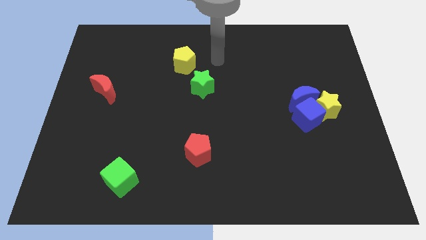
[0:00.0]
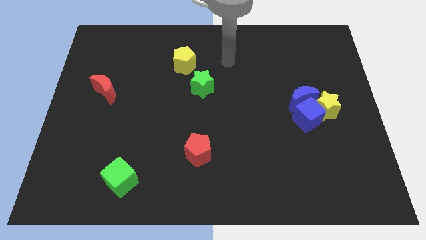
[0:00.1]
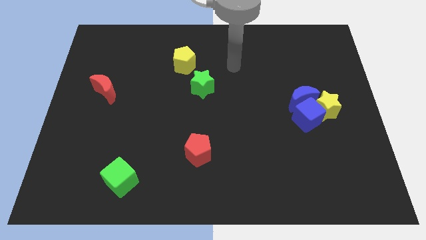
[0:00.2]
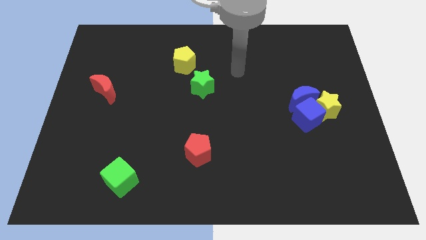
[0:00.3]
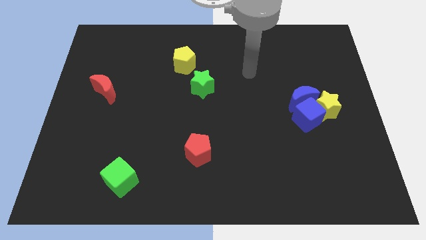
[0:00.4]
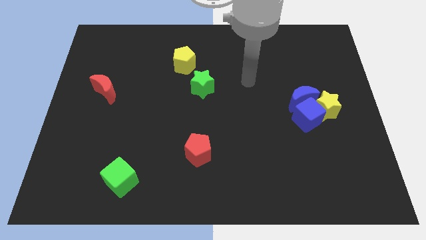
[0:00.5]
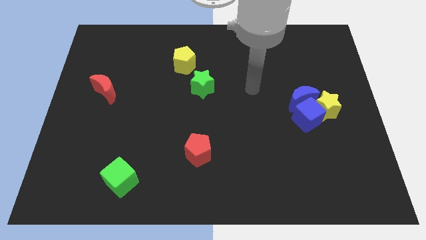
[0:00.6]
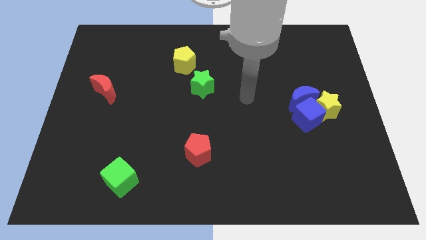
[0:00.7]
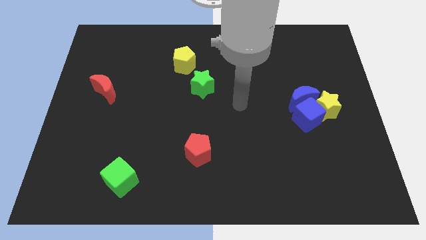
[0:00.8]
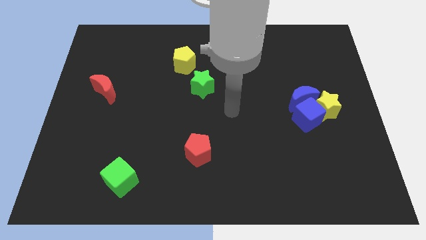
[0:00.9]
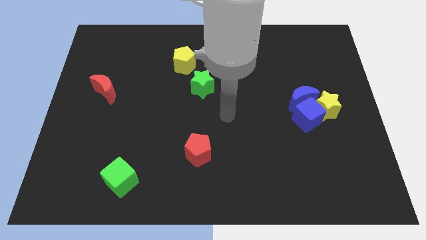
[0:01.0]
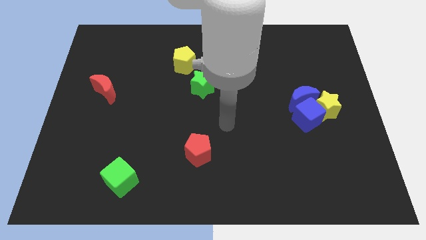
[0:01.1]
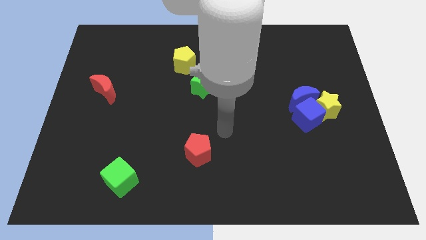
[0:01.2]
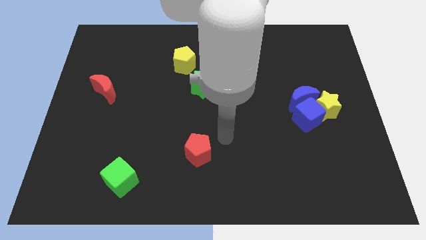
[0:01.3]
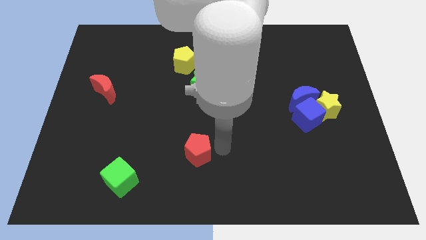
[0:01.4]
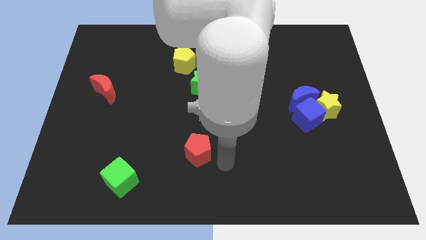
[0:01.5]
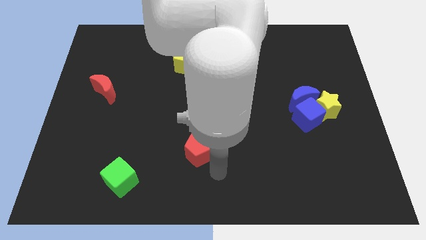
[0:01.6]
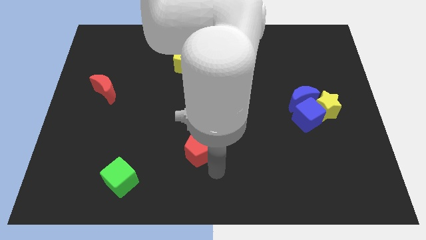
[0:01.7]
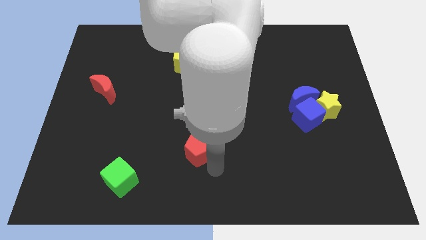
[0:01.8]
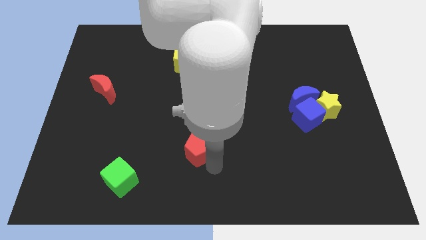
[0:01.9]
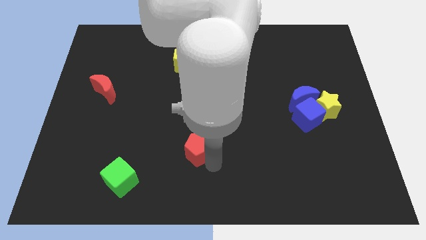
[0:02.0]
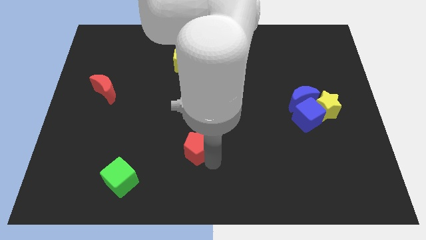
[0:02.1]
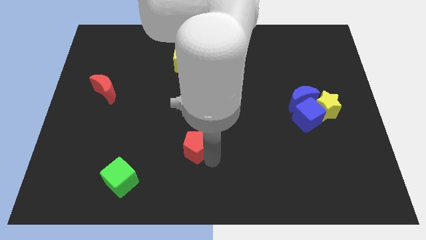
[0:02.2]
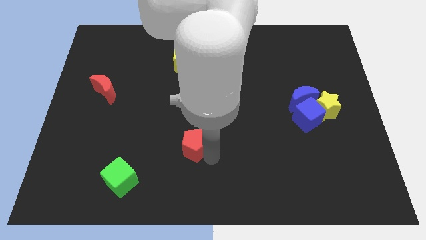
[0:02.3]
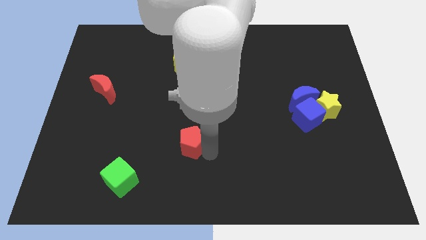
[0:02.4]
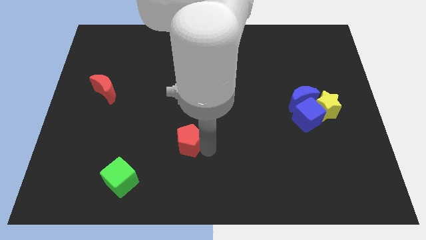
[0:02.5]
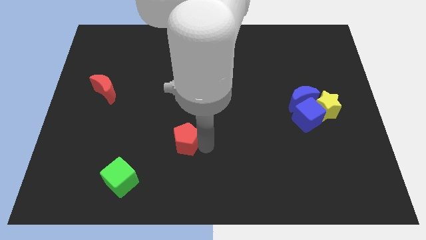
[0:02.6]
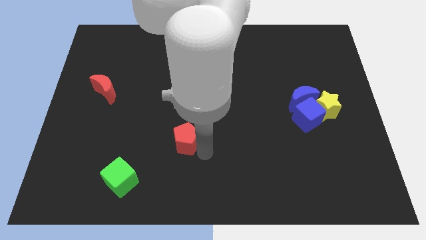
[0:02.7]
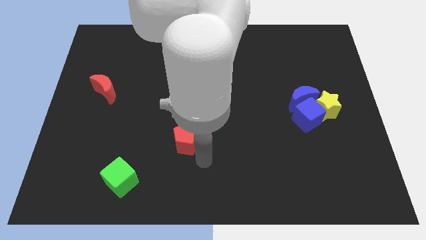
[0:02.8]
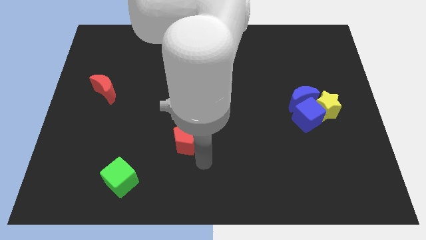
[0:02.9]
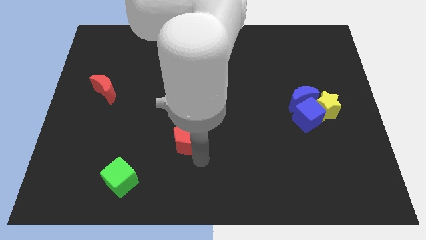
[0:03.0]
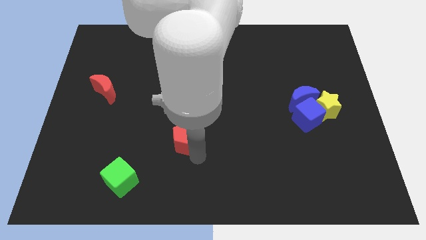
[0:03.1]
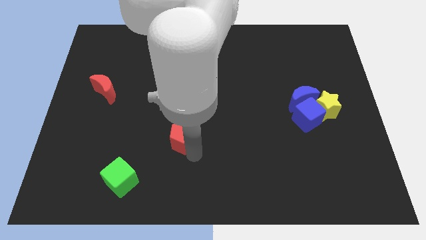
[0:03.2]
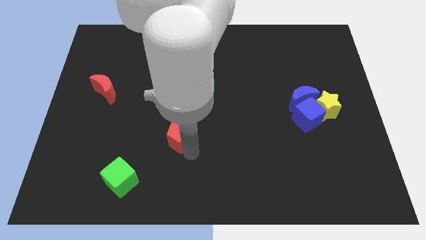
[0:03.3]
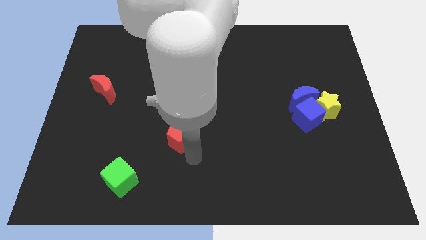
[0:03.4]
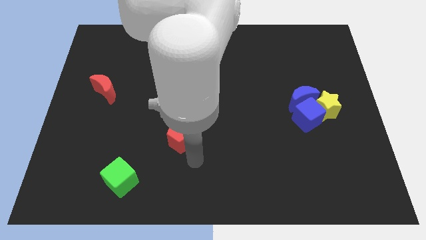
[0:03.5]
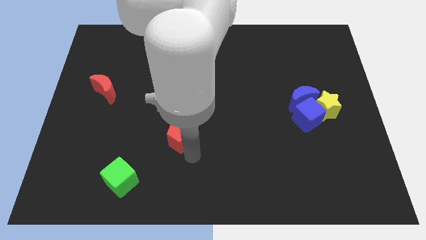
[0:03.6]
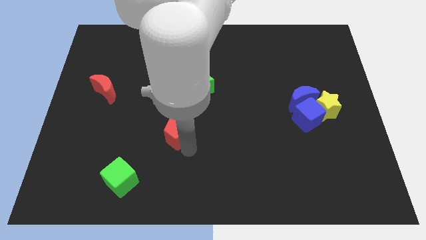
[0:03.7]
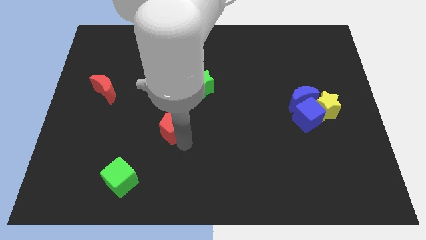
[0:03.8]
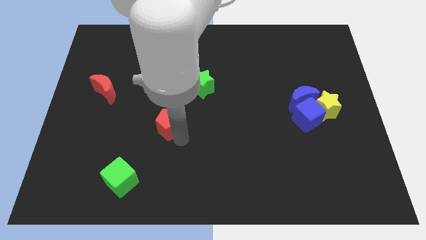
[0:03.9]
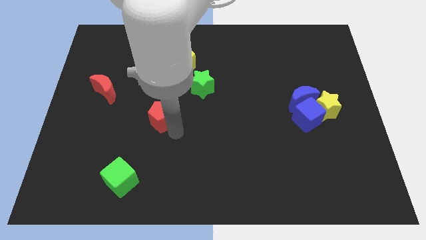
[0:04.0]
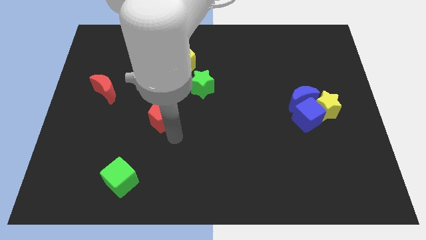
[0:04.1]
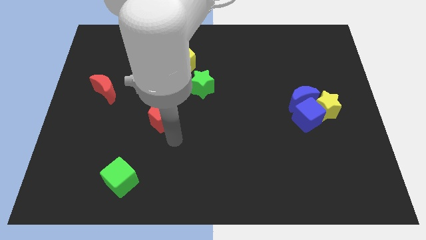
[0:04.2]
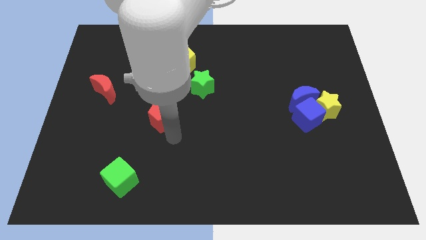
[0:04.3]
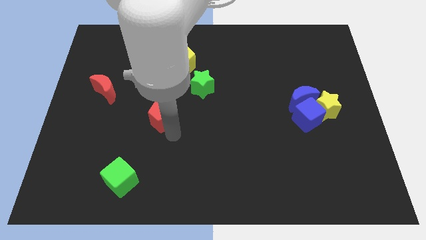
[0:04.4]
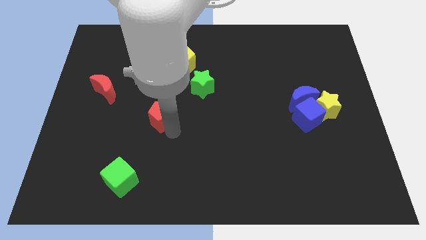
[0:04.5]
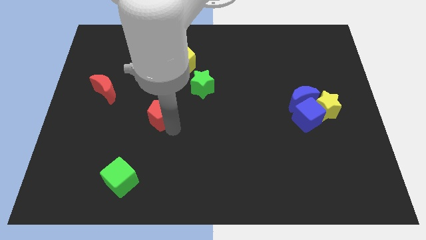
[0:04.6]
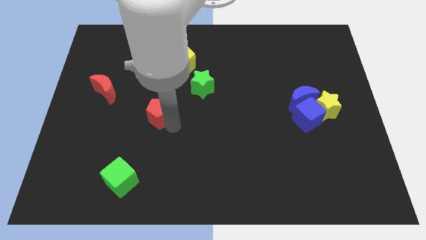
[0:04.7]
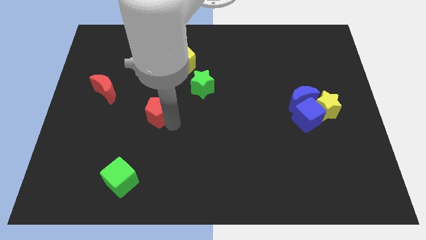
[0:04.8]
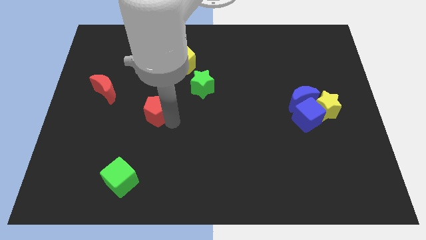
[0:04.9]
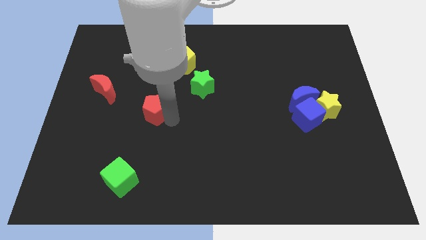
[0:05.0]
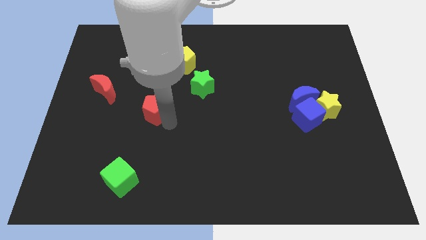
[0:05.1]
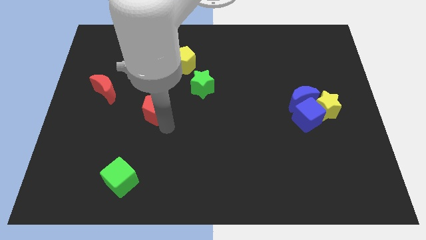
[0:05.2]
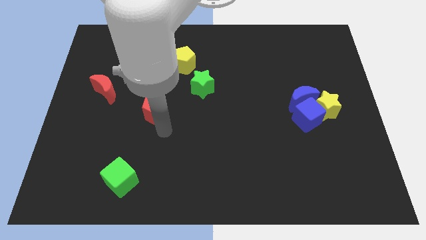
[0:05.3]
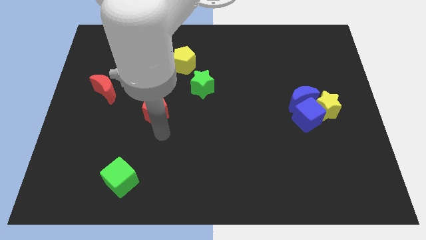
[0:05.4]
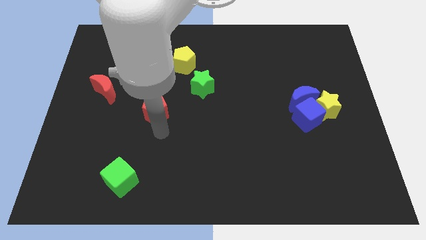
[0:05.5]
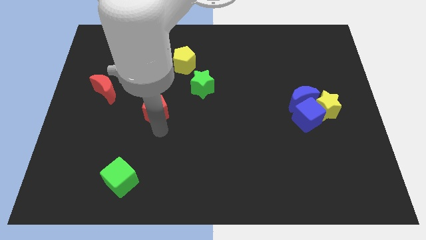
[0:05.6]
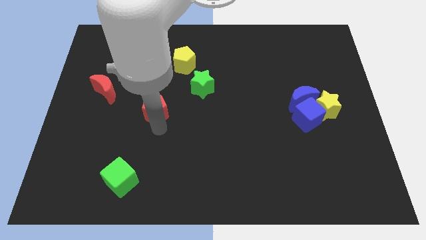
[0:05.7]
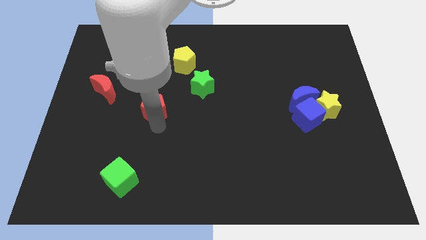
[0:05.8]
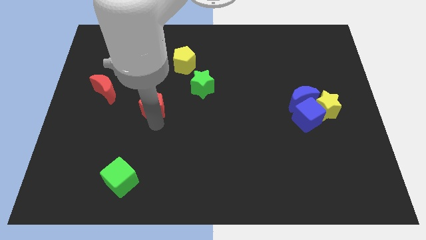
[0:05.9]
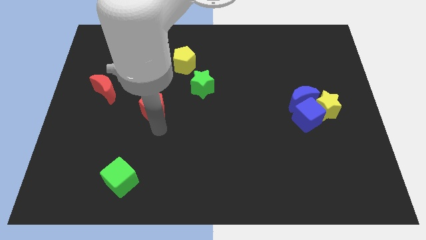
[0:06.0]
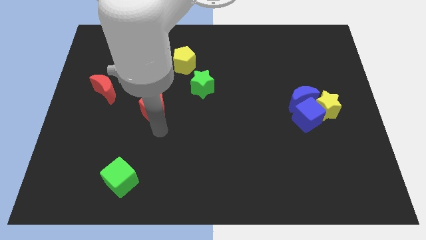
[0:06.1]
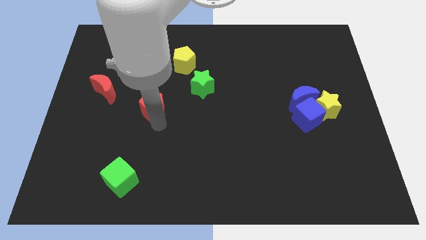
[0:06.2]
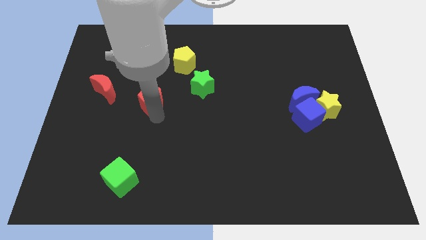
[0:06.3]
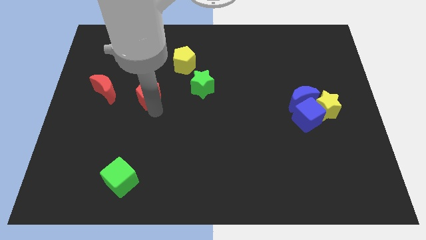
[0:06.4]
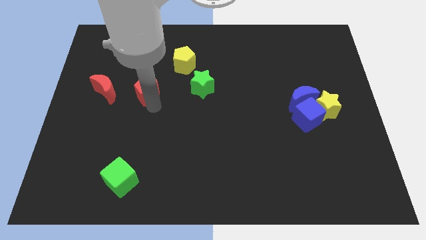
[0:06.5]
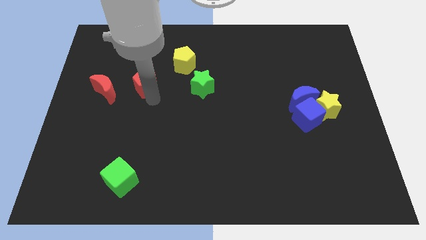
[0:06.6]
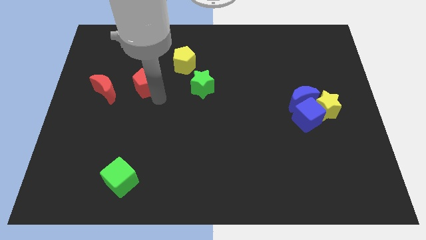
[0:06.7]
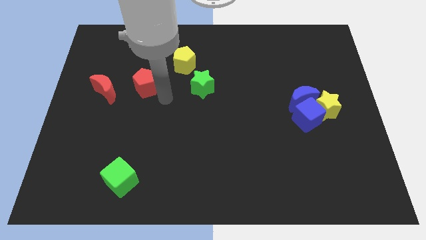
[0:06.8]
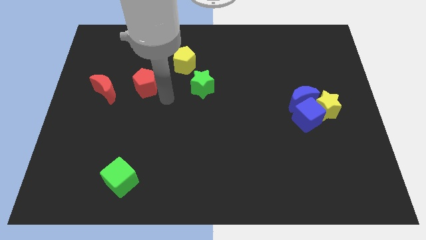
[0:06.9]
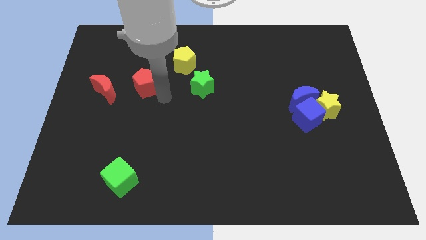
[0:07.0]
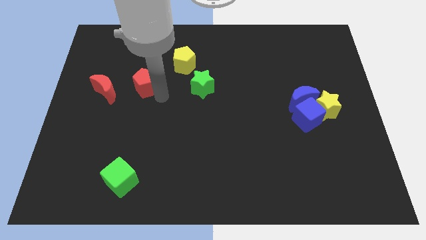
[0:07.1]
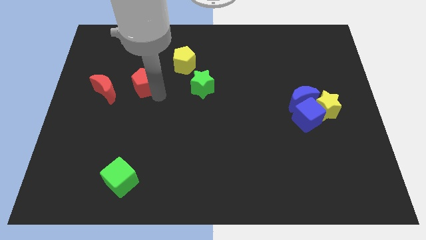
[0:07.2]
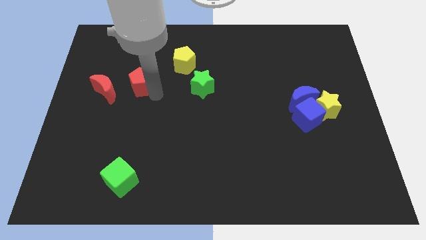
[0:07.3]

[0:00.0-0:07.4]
push the red pentagon to the top right side of the red moon
